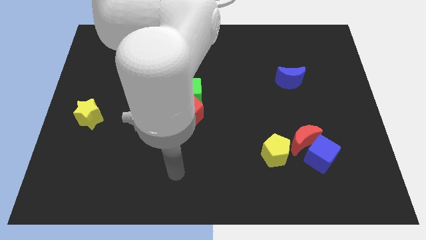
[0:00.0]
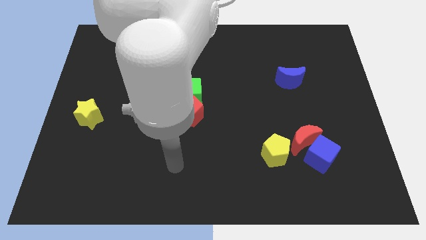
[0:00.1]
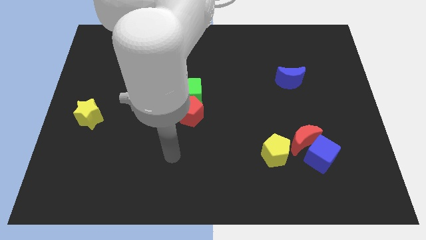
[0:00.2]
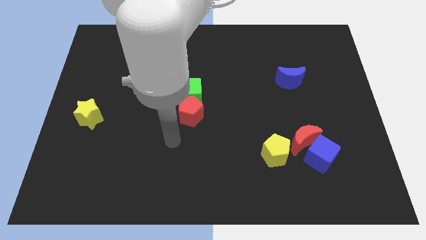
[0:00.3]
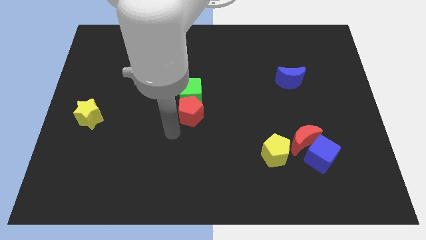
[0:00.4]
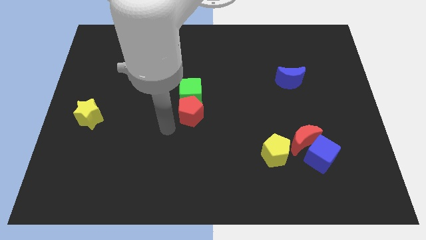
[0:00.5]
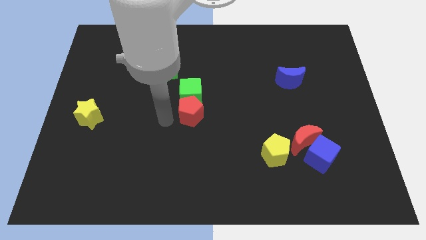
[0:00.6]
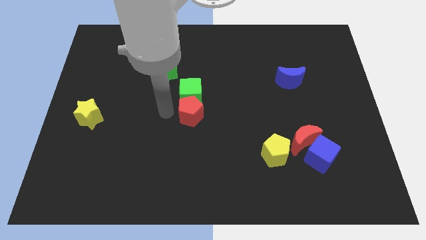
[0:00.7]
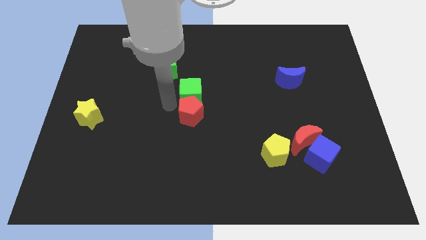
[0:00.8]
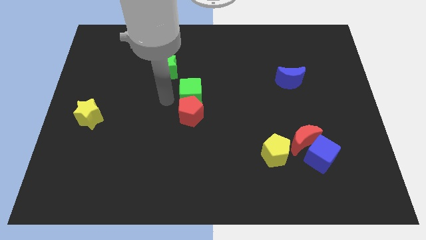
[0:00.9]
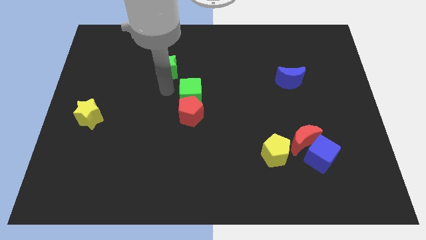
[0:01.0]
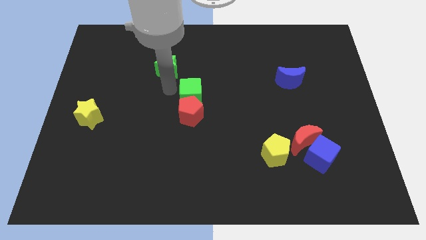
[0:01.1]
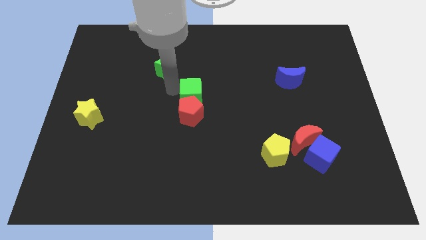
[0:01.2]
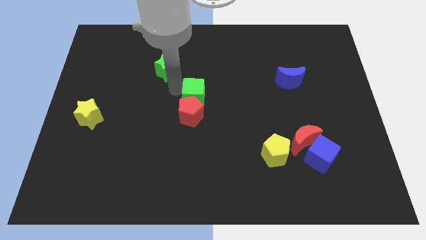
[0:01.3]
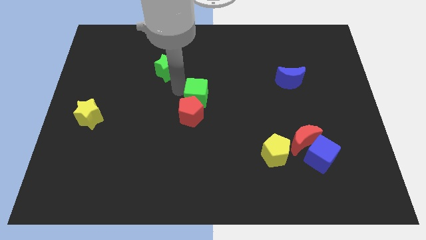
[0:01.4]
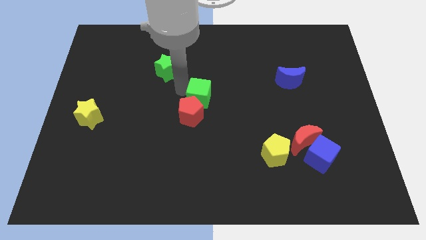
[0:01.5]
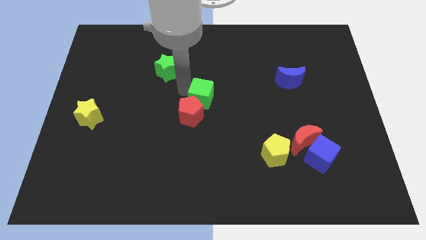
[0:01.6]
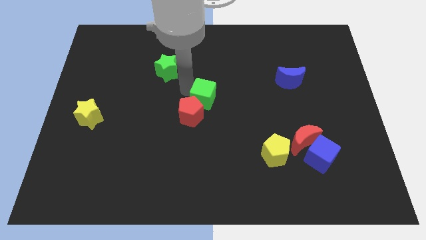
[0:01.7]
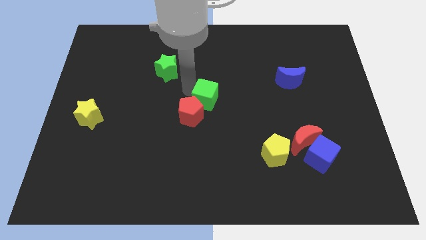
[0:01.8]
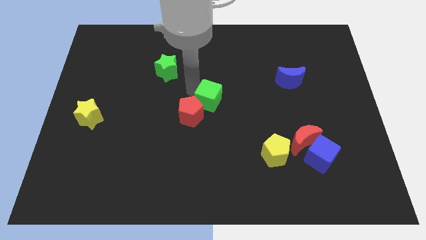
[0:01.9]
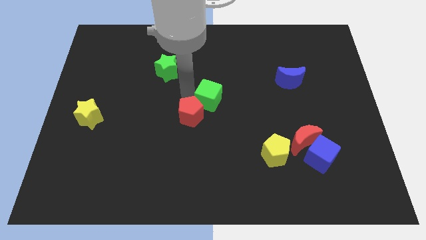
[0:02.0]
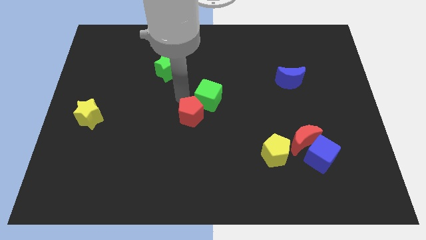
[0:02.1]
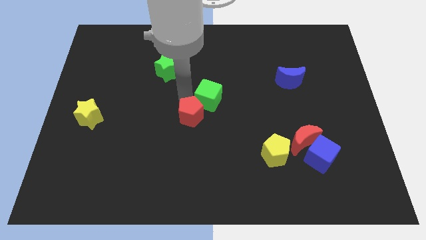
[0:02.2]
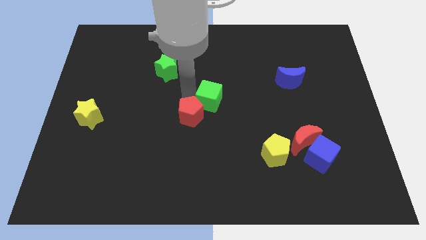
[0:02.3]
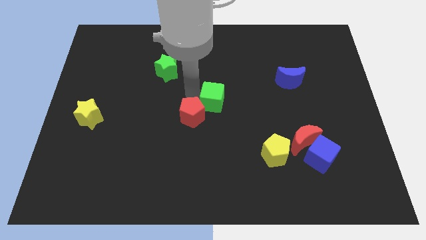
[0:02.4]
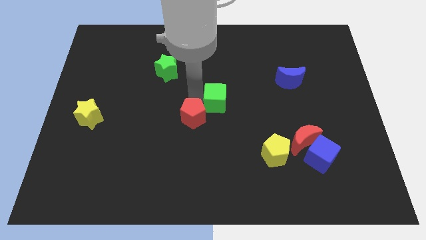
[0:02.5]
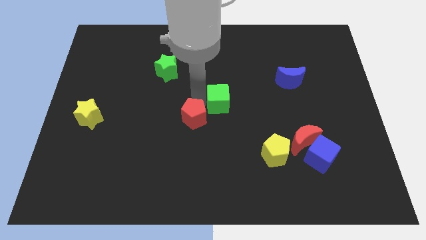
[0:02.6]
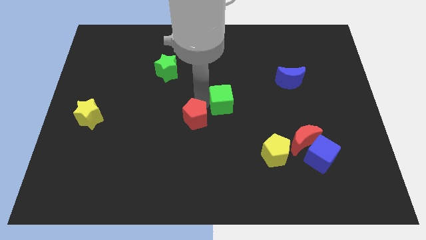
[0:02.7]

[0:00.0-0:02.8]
move the green cube a bit right

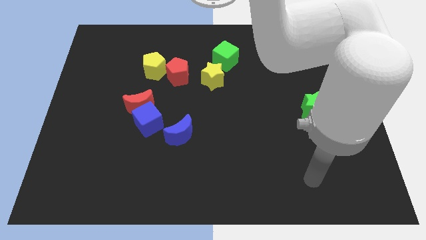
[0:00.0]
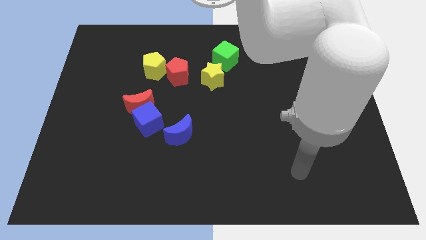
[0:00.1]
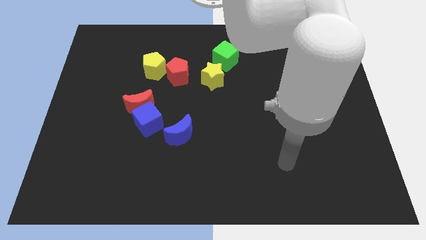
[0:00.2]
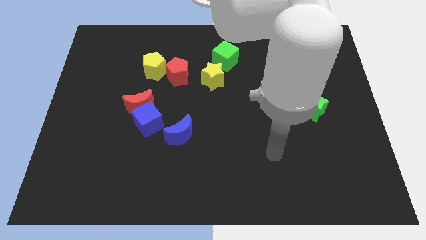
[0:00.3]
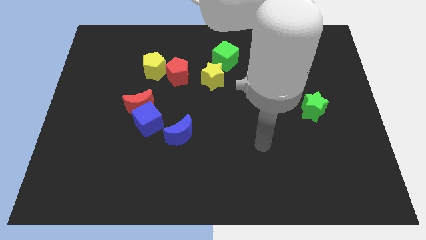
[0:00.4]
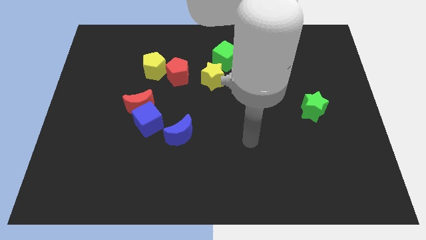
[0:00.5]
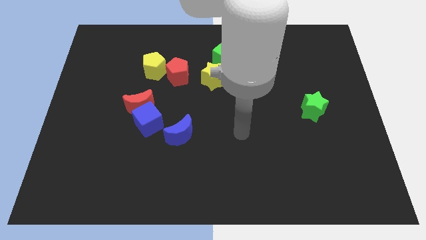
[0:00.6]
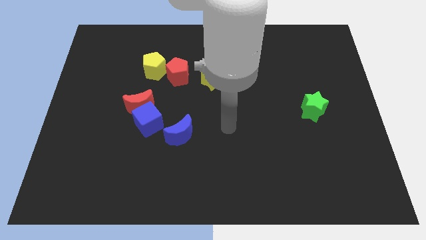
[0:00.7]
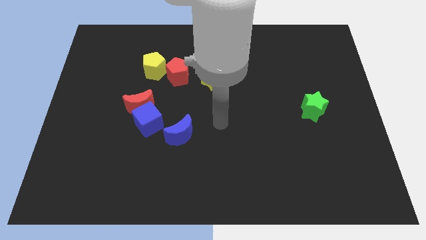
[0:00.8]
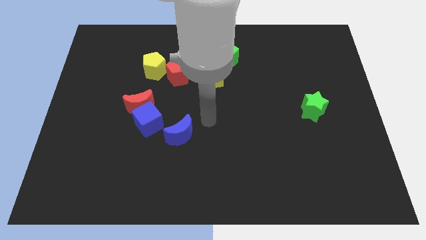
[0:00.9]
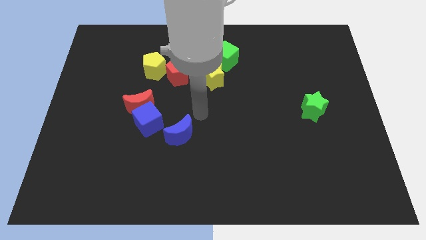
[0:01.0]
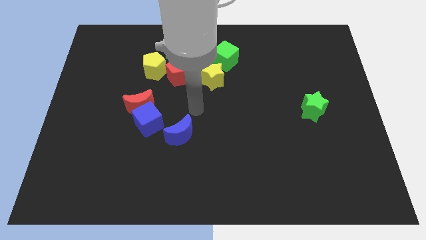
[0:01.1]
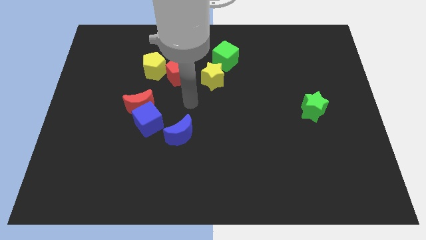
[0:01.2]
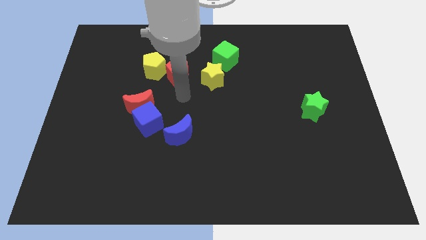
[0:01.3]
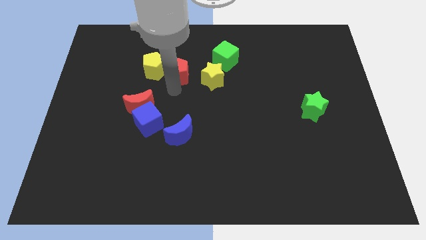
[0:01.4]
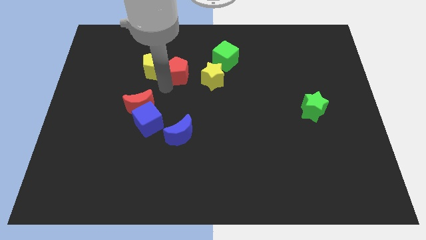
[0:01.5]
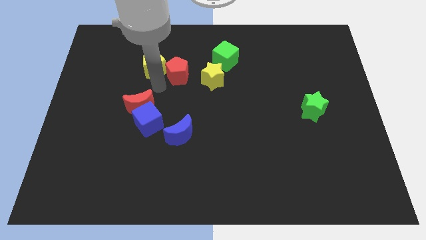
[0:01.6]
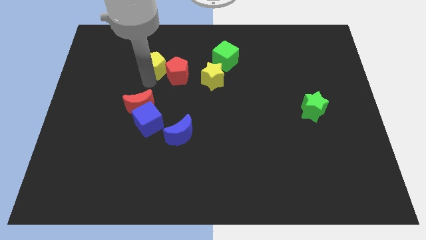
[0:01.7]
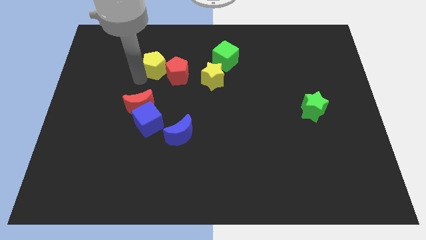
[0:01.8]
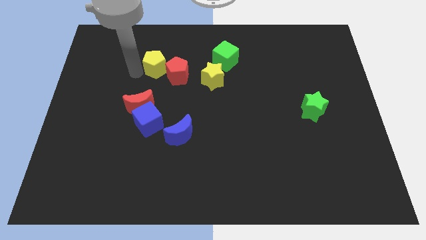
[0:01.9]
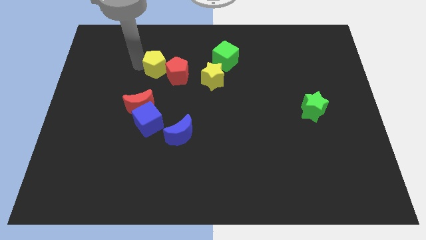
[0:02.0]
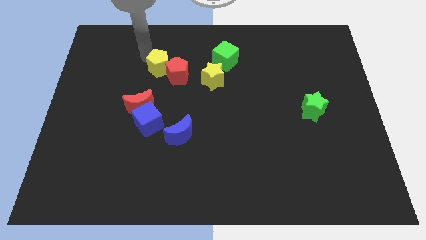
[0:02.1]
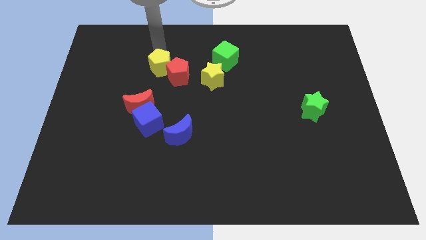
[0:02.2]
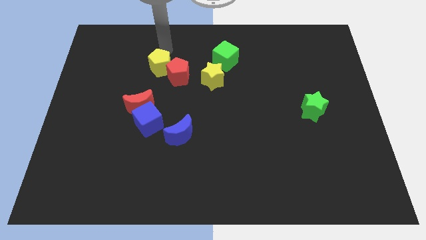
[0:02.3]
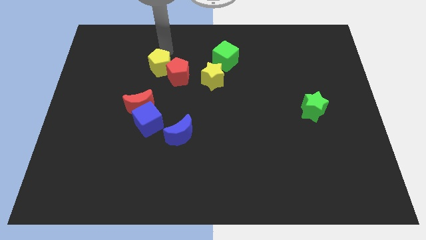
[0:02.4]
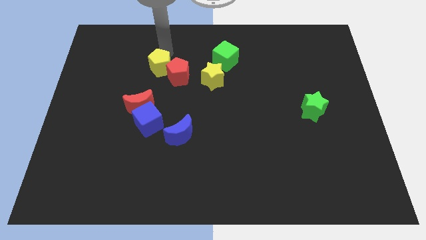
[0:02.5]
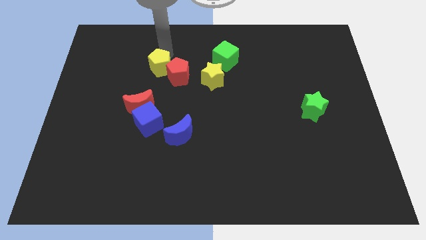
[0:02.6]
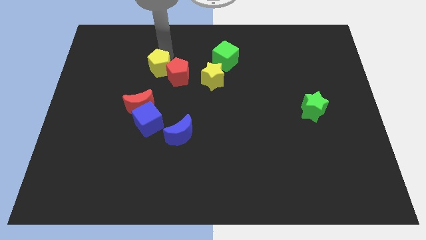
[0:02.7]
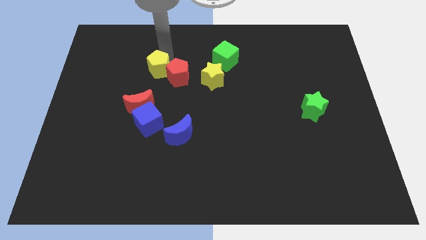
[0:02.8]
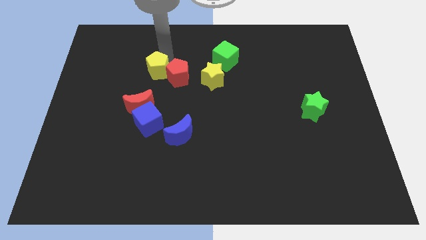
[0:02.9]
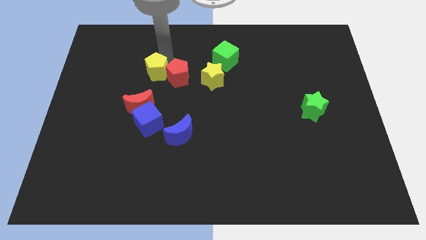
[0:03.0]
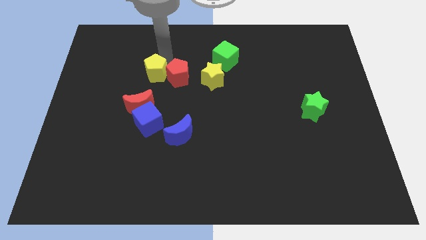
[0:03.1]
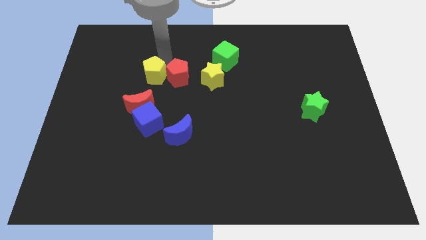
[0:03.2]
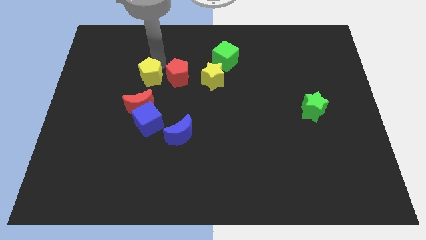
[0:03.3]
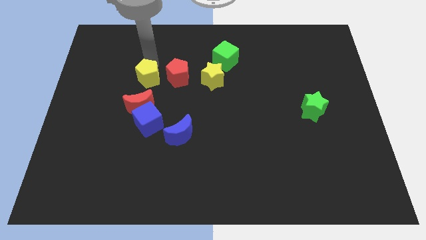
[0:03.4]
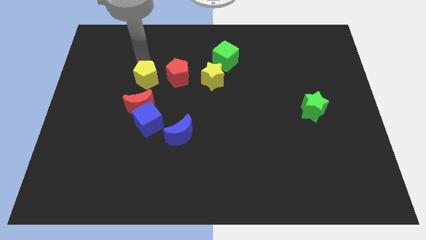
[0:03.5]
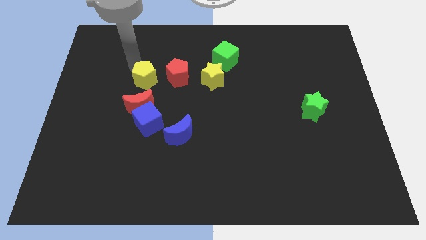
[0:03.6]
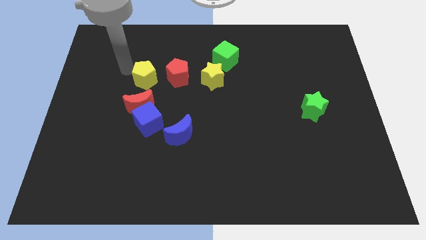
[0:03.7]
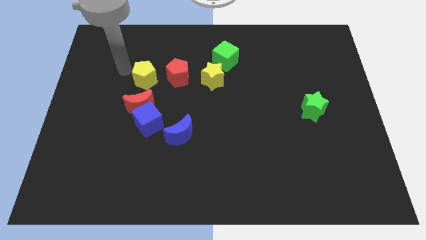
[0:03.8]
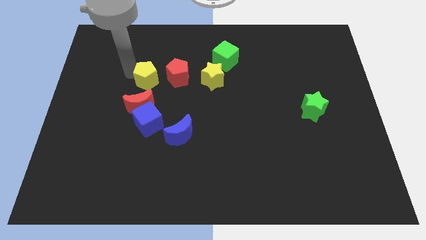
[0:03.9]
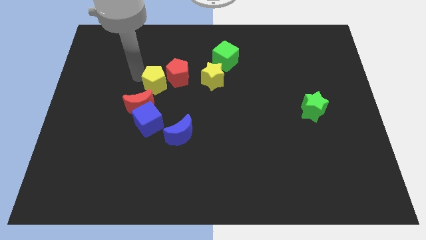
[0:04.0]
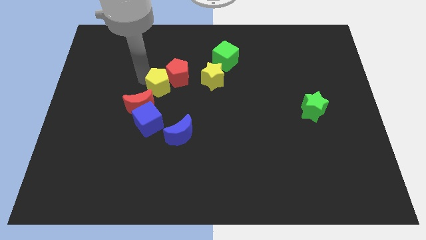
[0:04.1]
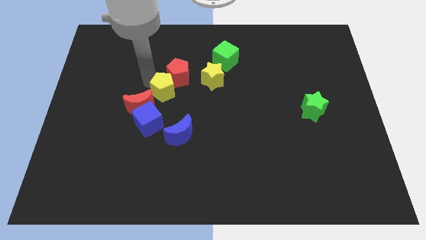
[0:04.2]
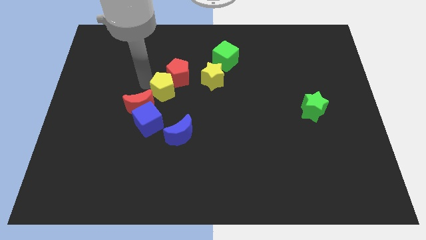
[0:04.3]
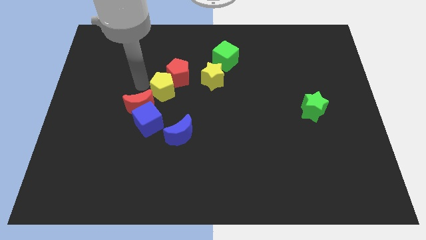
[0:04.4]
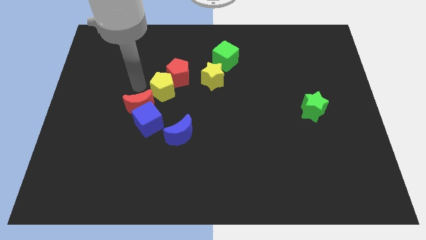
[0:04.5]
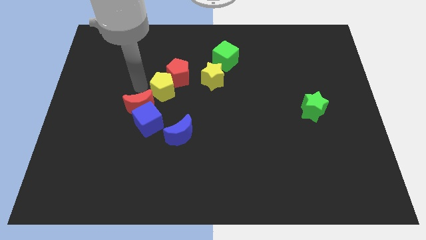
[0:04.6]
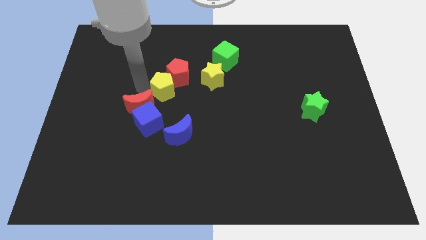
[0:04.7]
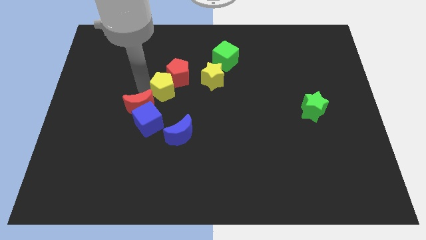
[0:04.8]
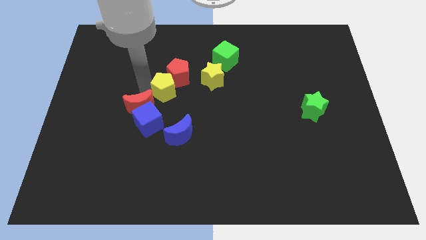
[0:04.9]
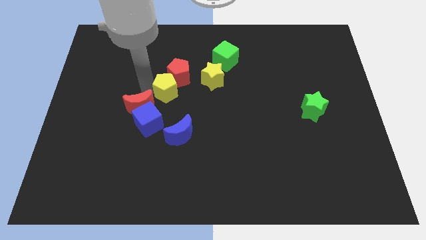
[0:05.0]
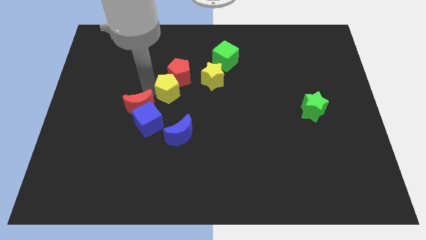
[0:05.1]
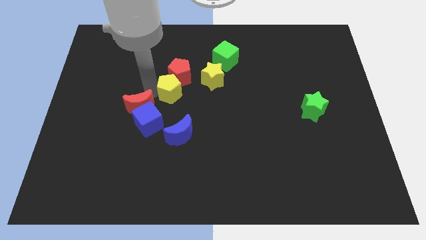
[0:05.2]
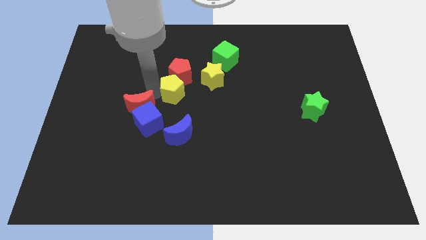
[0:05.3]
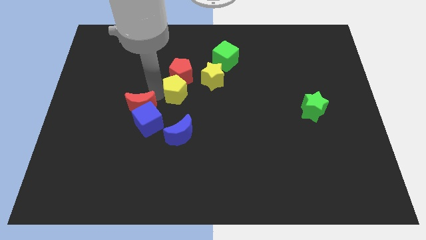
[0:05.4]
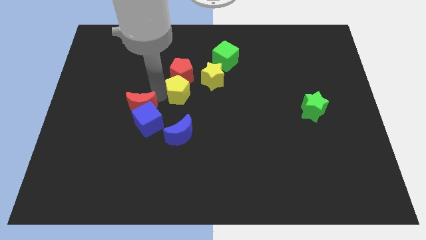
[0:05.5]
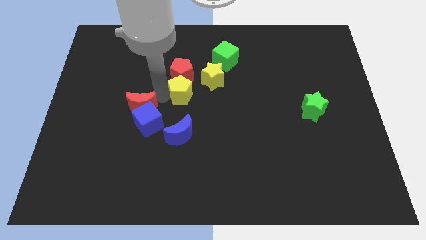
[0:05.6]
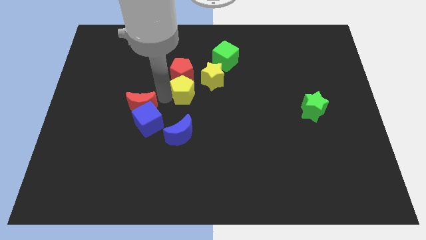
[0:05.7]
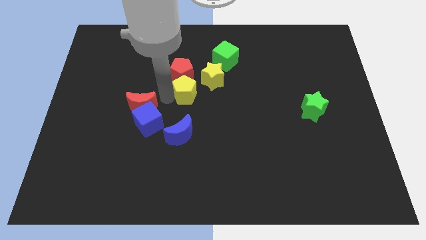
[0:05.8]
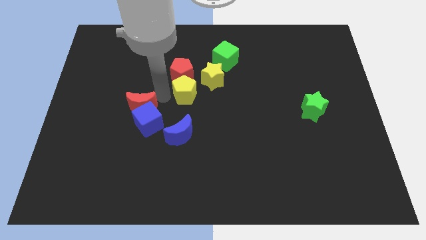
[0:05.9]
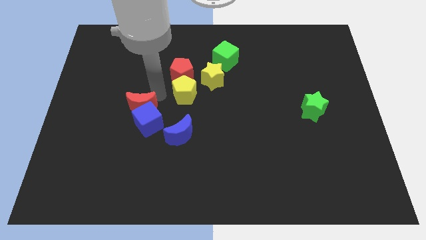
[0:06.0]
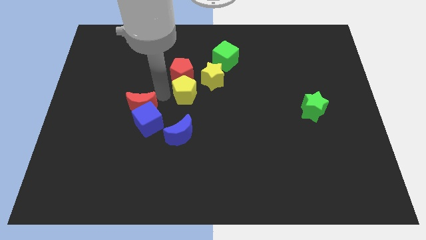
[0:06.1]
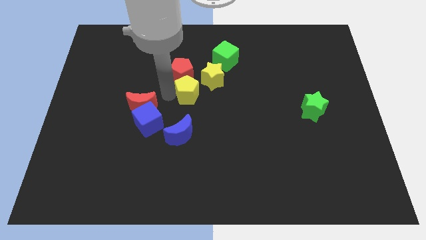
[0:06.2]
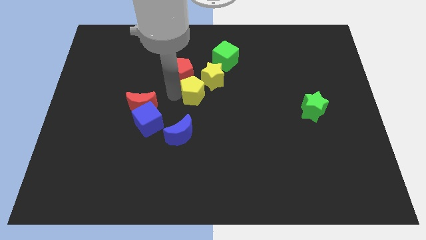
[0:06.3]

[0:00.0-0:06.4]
slide the yellow pentagon to the right somewhat
